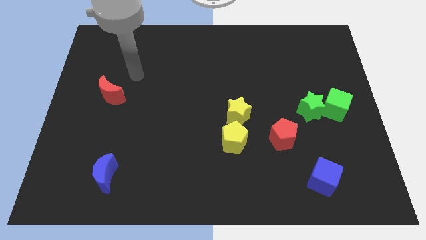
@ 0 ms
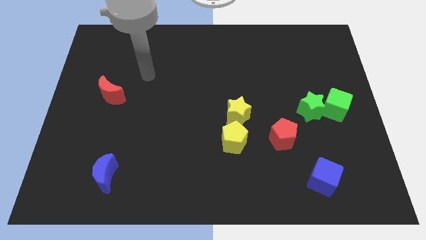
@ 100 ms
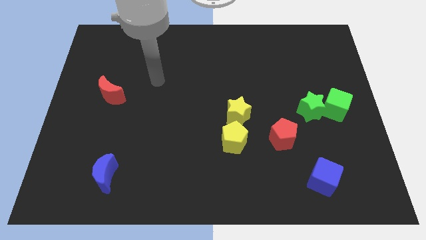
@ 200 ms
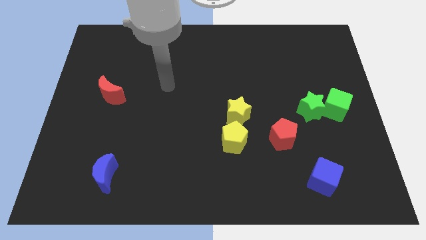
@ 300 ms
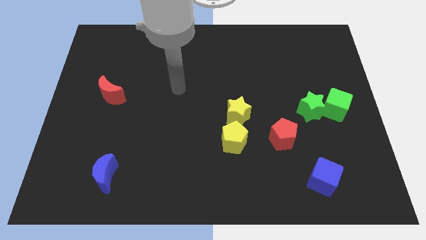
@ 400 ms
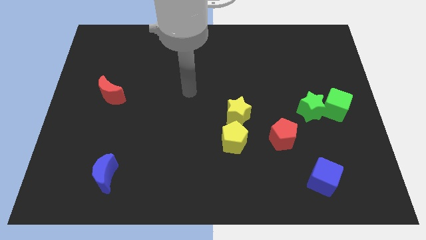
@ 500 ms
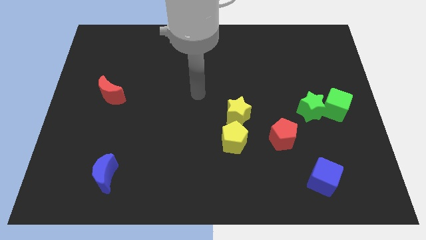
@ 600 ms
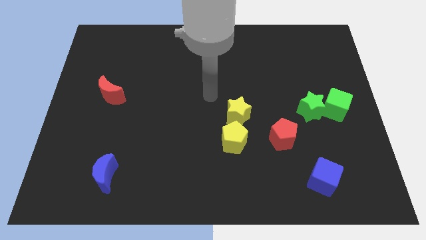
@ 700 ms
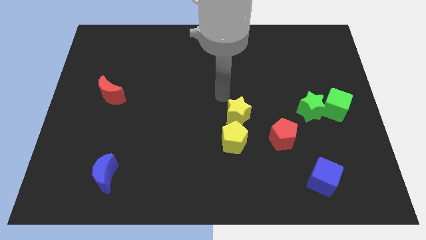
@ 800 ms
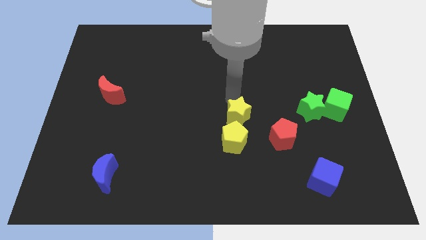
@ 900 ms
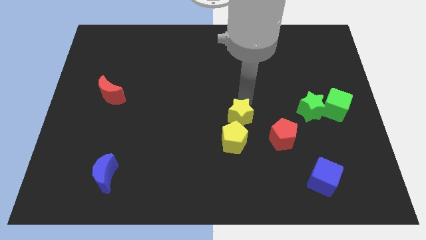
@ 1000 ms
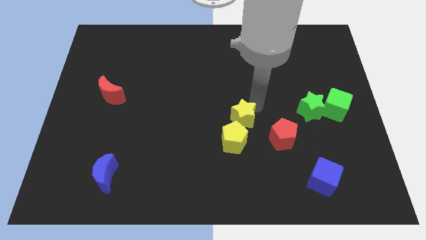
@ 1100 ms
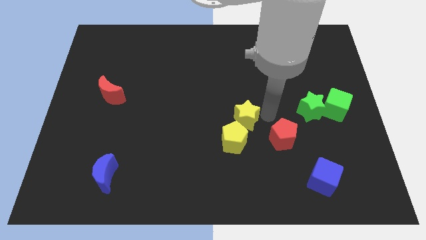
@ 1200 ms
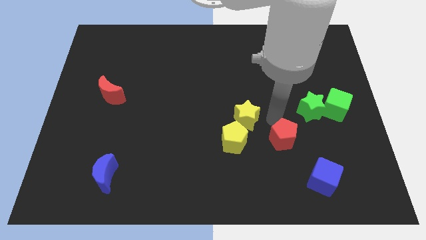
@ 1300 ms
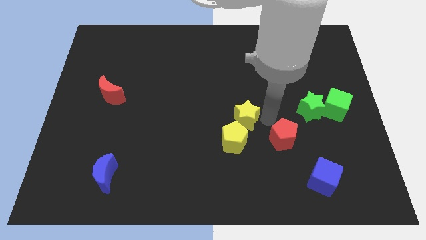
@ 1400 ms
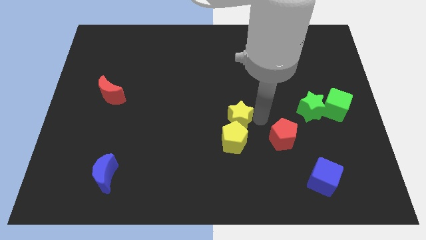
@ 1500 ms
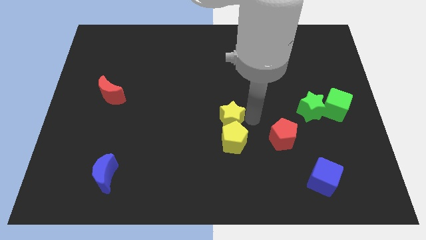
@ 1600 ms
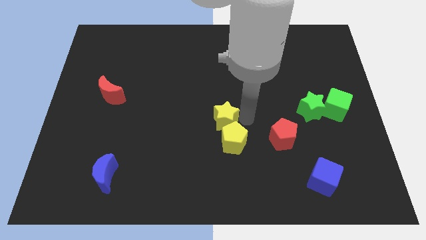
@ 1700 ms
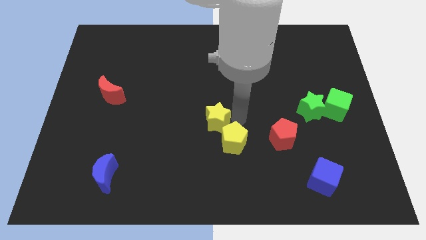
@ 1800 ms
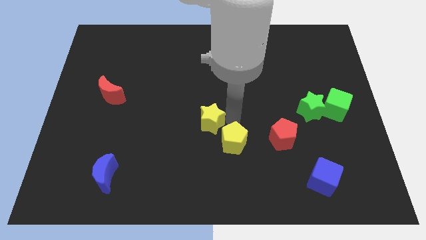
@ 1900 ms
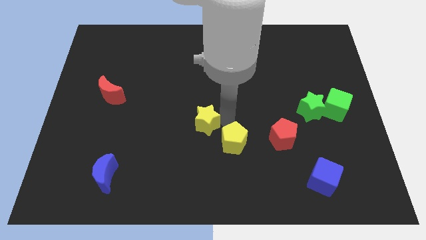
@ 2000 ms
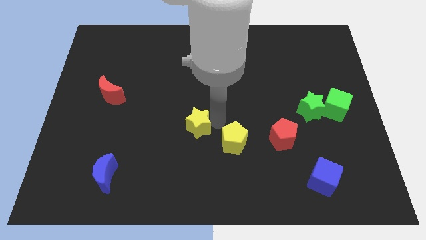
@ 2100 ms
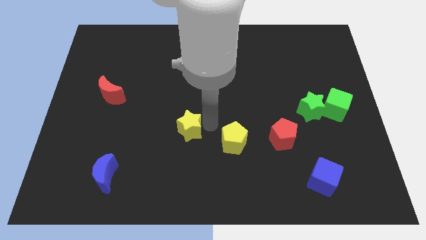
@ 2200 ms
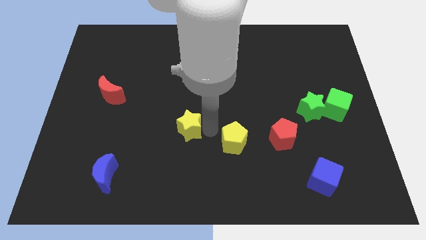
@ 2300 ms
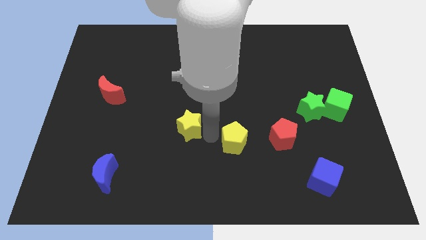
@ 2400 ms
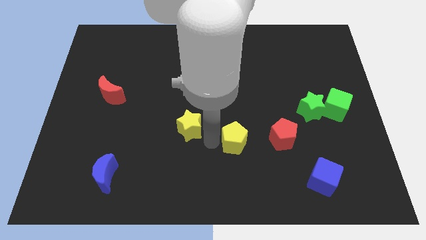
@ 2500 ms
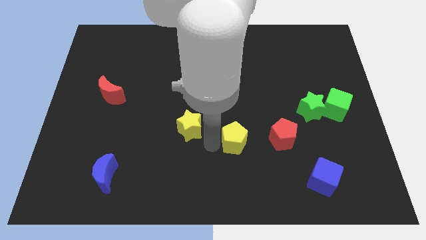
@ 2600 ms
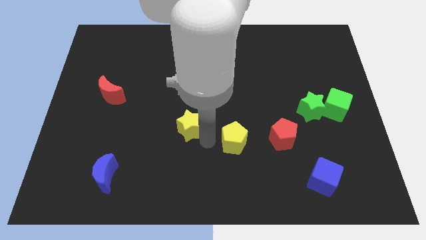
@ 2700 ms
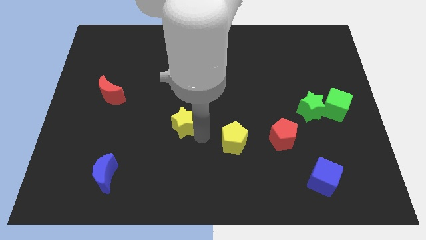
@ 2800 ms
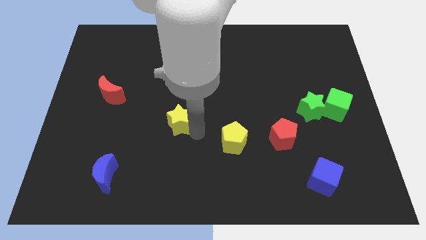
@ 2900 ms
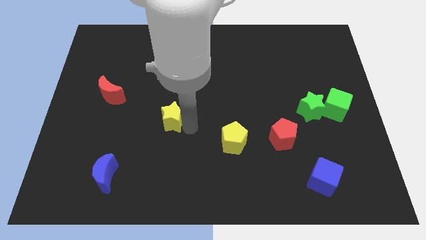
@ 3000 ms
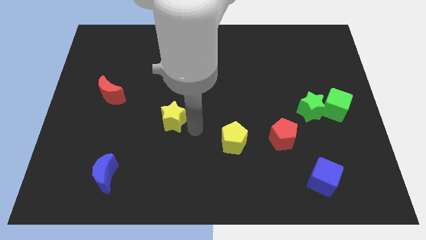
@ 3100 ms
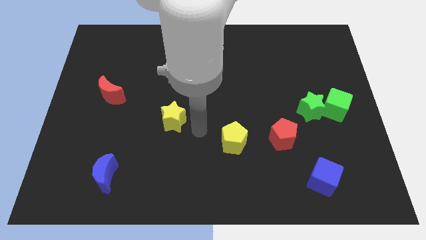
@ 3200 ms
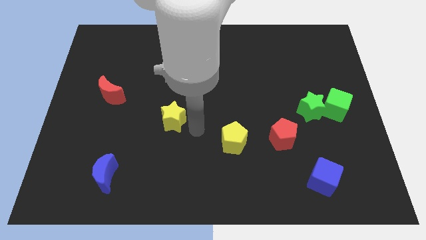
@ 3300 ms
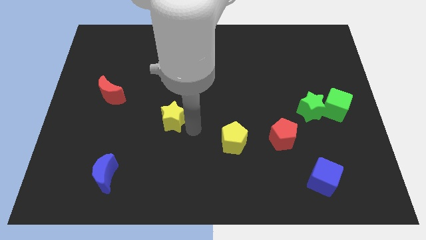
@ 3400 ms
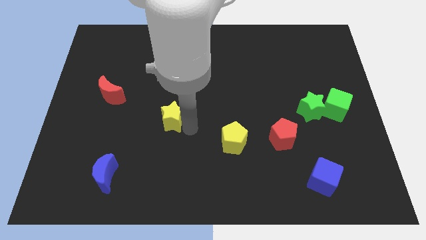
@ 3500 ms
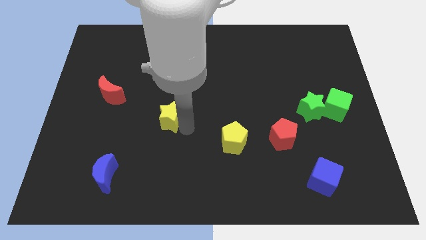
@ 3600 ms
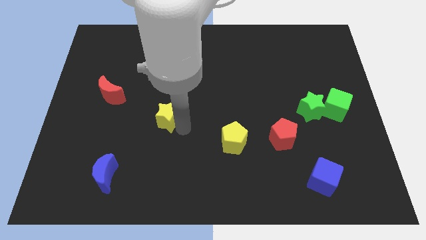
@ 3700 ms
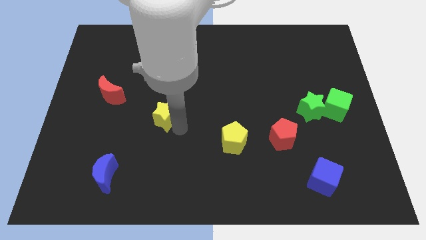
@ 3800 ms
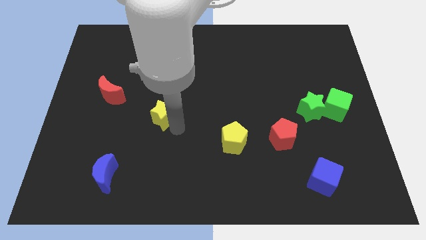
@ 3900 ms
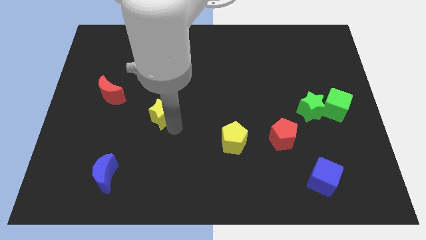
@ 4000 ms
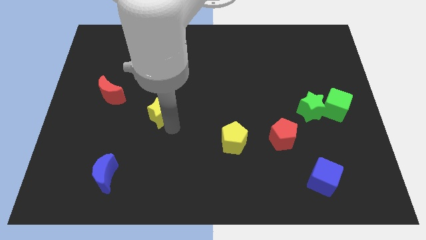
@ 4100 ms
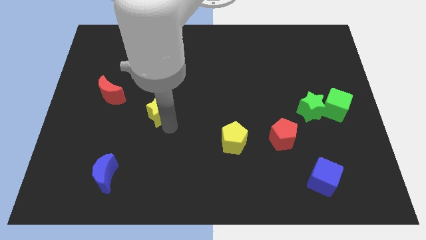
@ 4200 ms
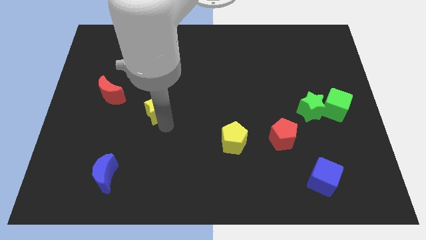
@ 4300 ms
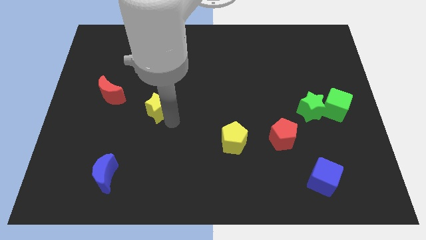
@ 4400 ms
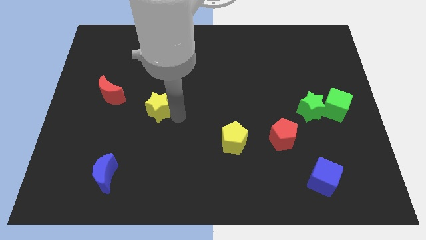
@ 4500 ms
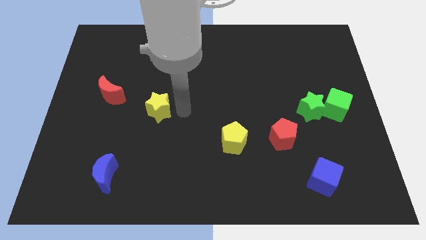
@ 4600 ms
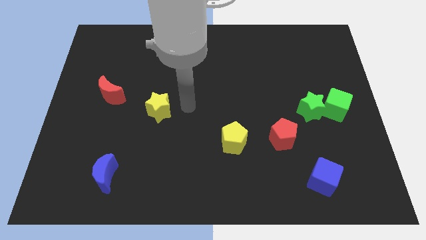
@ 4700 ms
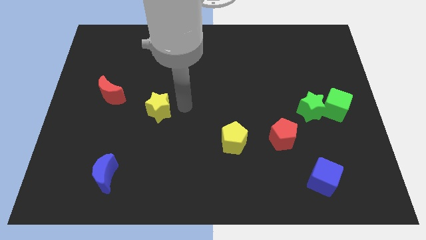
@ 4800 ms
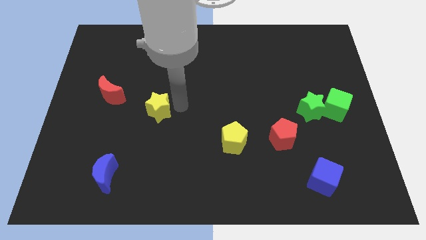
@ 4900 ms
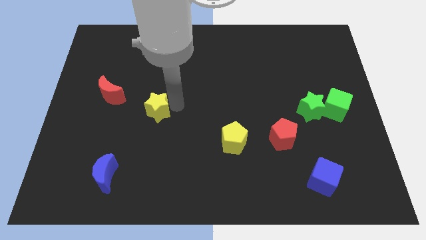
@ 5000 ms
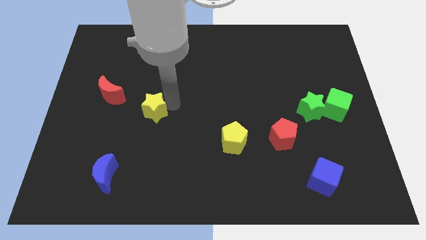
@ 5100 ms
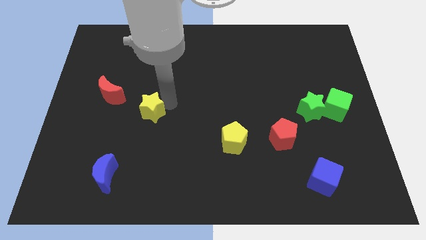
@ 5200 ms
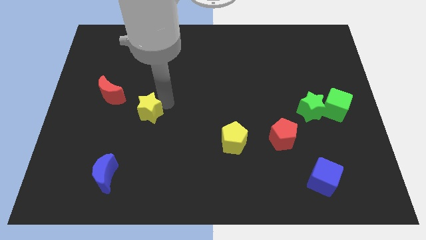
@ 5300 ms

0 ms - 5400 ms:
slide the yellow star left

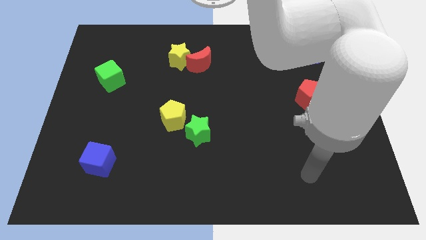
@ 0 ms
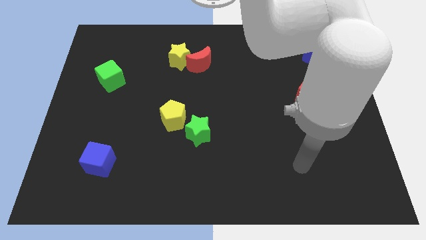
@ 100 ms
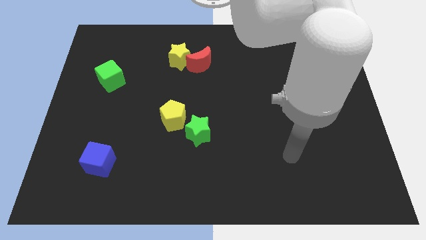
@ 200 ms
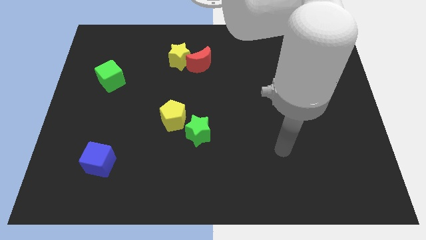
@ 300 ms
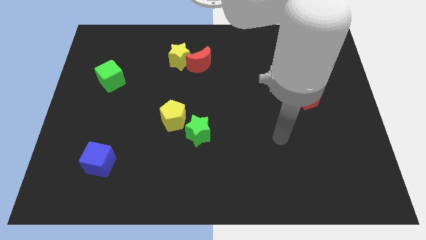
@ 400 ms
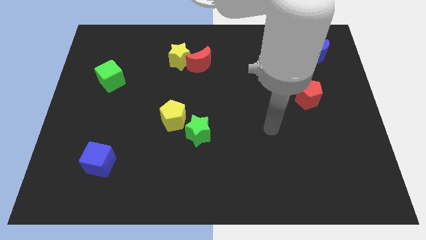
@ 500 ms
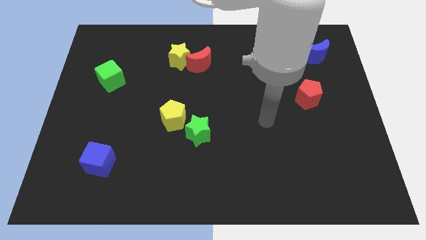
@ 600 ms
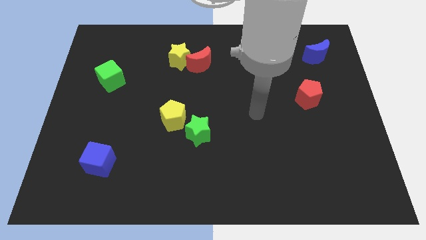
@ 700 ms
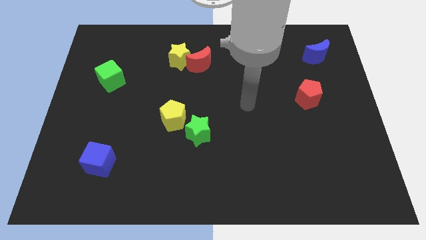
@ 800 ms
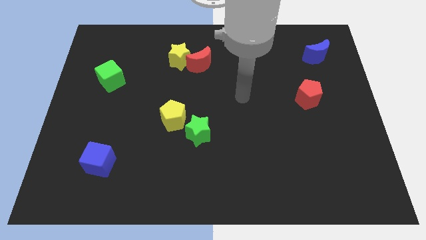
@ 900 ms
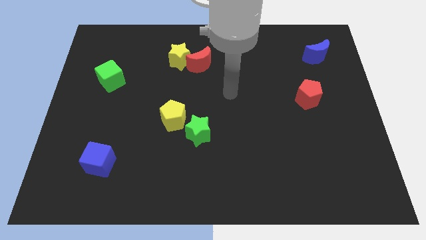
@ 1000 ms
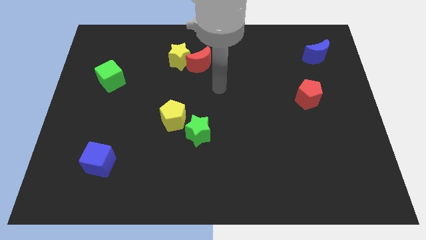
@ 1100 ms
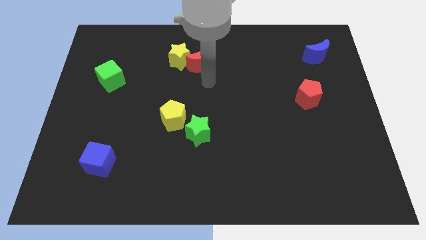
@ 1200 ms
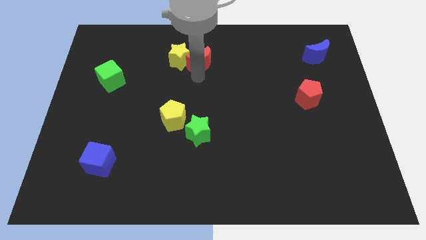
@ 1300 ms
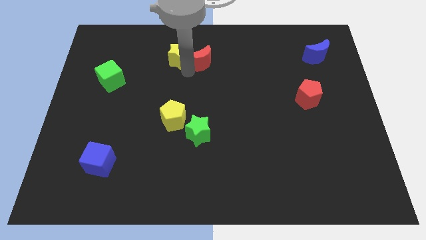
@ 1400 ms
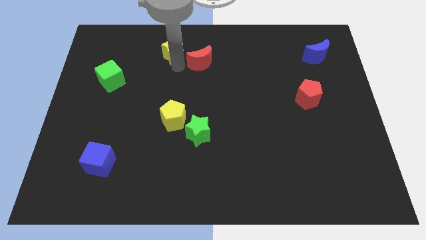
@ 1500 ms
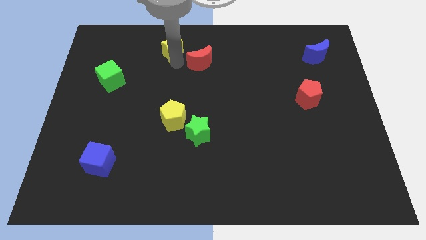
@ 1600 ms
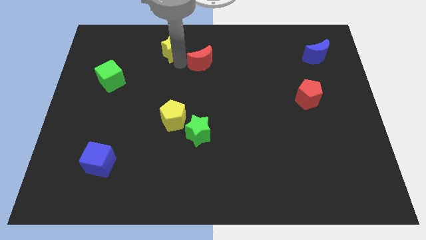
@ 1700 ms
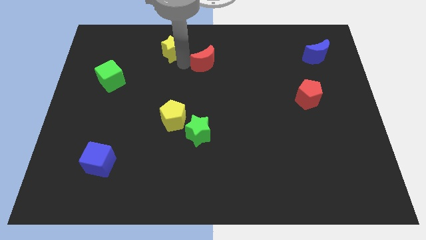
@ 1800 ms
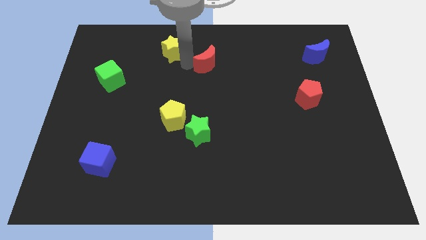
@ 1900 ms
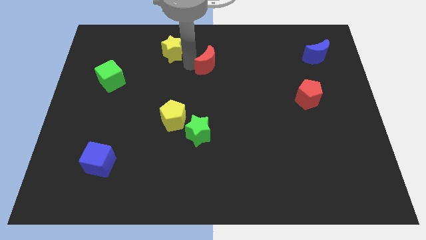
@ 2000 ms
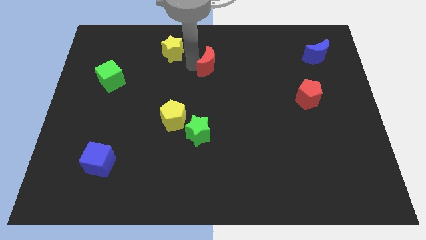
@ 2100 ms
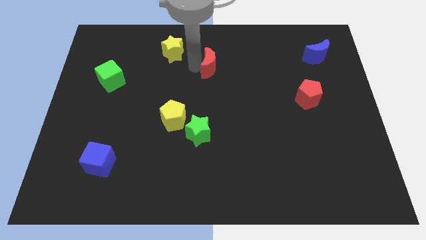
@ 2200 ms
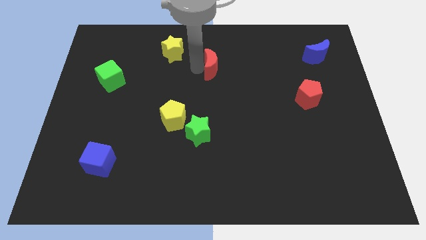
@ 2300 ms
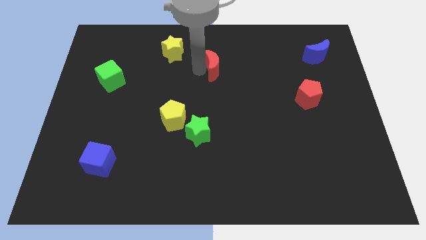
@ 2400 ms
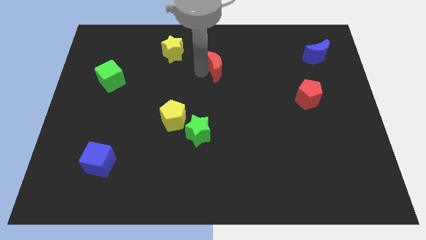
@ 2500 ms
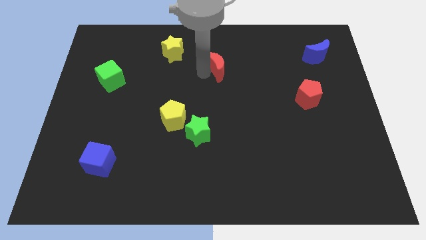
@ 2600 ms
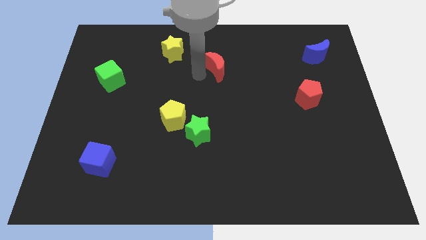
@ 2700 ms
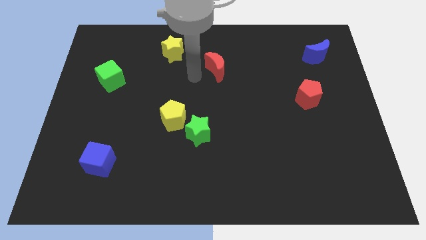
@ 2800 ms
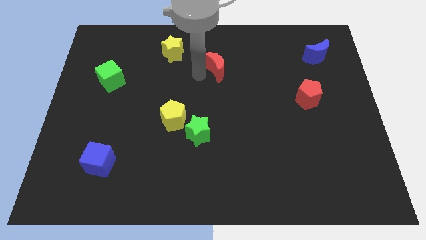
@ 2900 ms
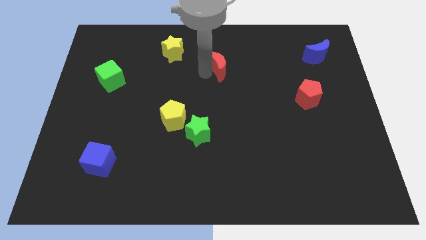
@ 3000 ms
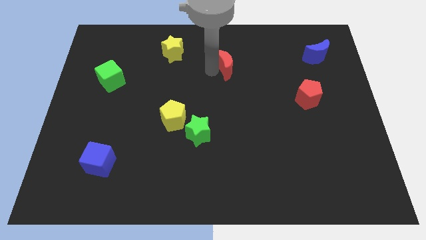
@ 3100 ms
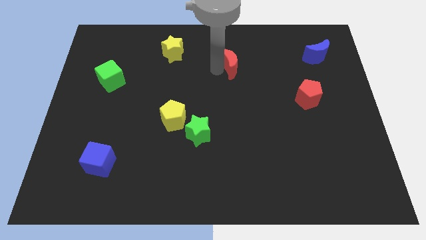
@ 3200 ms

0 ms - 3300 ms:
slide the red moon to the right a bit
